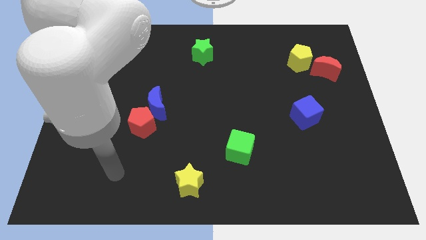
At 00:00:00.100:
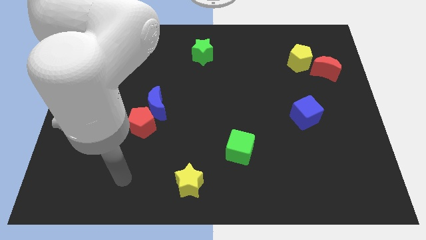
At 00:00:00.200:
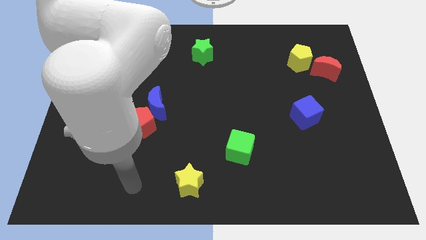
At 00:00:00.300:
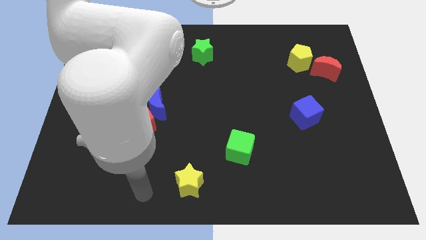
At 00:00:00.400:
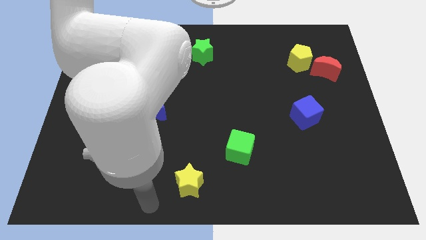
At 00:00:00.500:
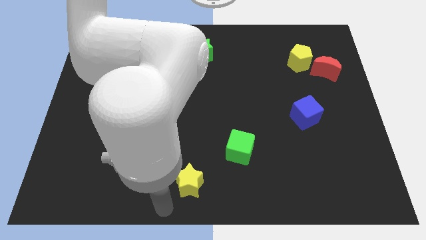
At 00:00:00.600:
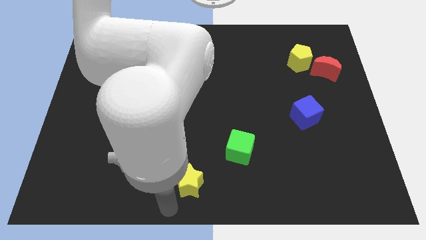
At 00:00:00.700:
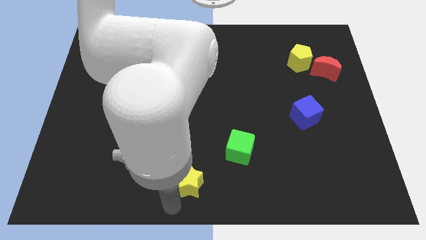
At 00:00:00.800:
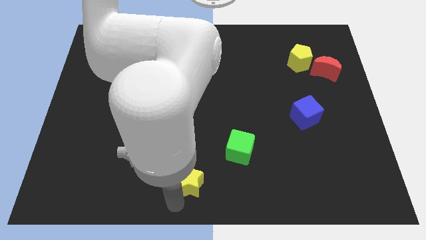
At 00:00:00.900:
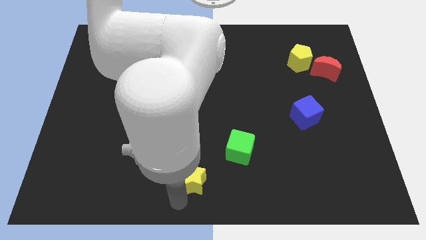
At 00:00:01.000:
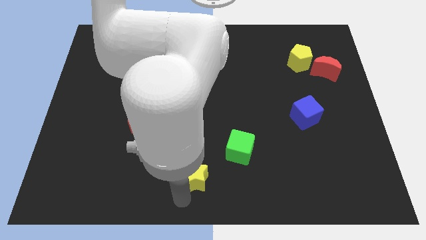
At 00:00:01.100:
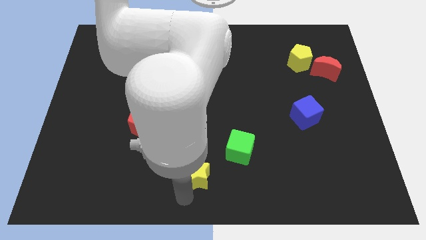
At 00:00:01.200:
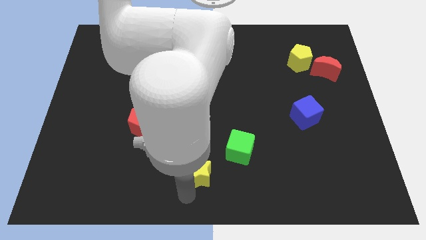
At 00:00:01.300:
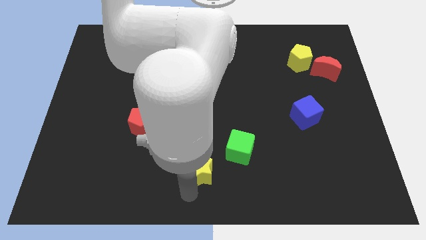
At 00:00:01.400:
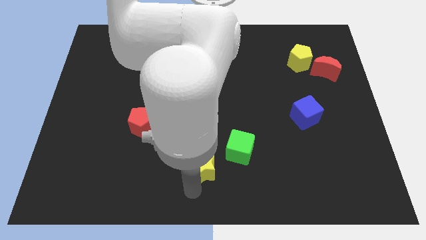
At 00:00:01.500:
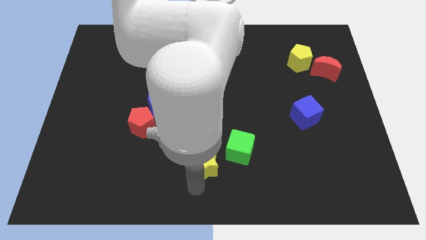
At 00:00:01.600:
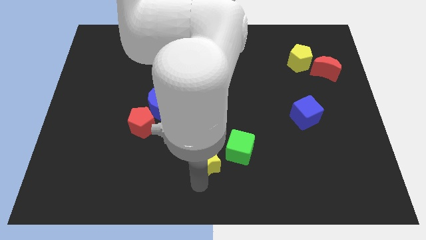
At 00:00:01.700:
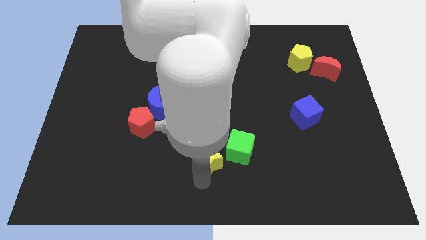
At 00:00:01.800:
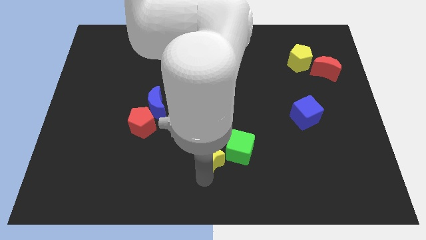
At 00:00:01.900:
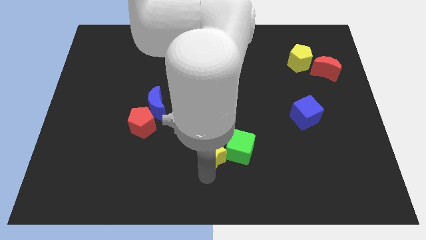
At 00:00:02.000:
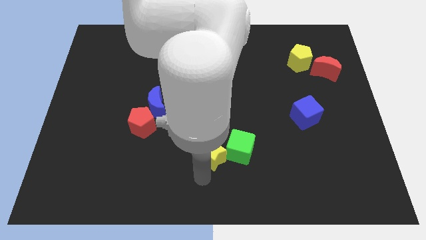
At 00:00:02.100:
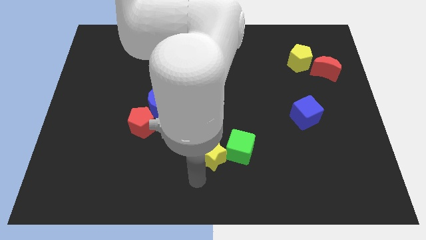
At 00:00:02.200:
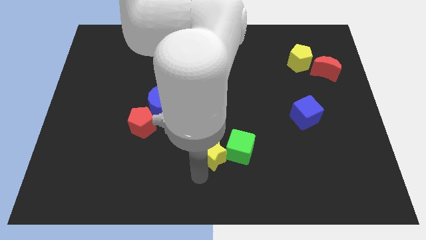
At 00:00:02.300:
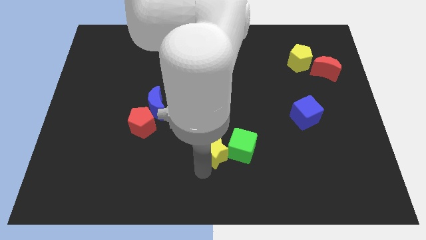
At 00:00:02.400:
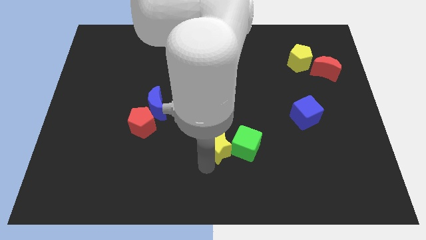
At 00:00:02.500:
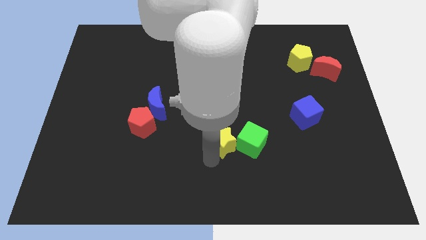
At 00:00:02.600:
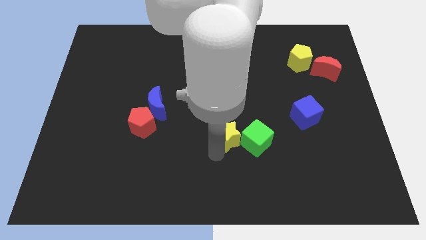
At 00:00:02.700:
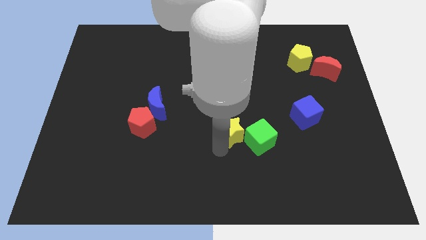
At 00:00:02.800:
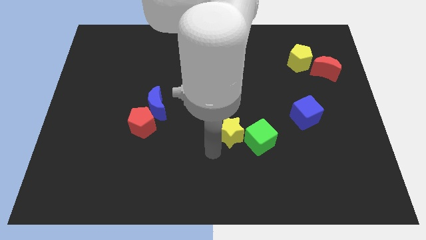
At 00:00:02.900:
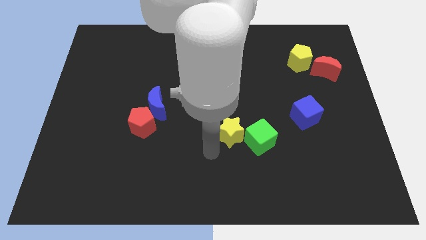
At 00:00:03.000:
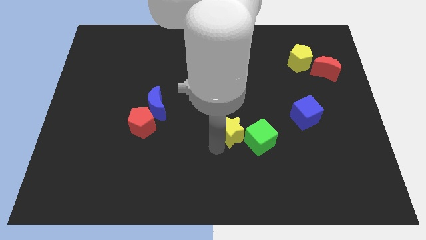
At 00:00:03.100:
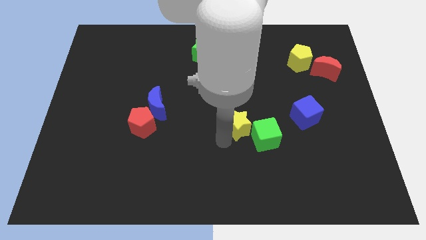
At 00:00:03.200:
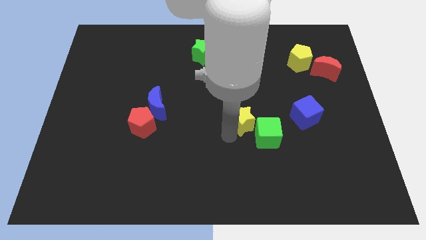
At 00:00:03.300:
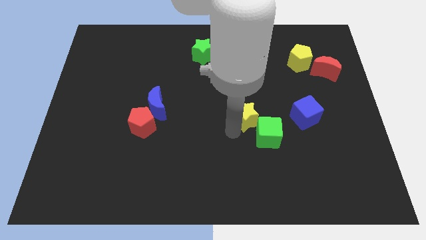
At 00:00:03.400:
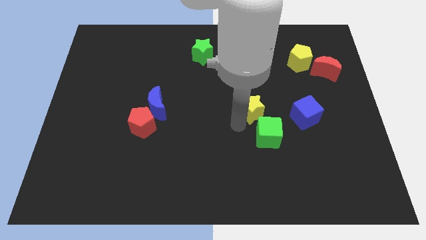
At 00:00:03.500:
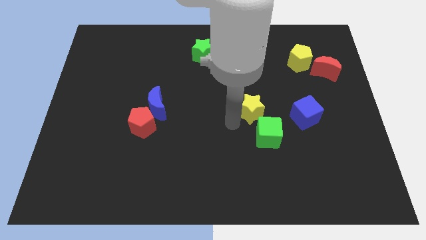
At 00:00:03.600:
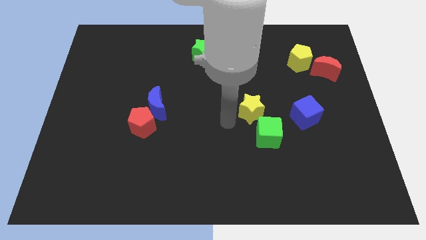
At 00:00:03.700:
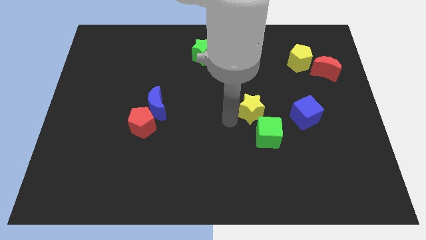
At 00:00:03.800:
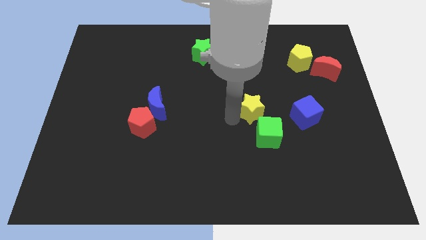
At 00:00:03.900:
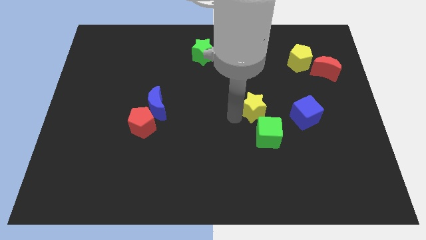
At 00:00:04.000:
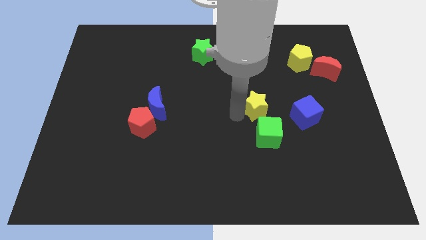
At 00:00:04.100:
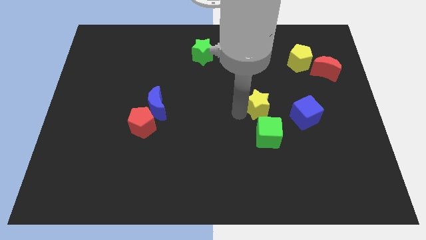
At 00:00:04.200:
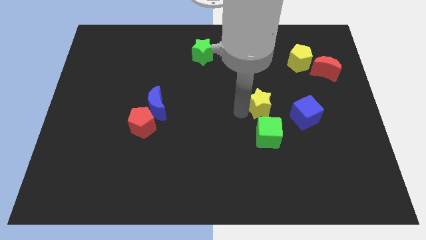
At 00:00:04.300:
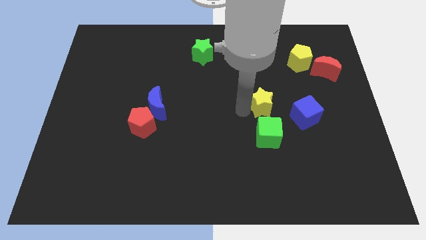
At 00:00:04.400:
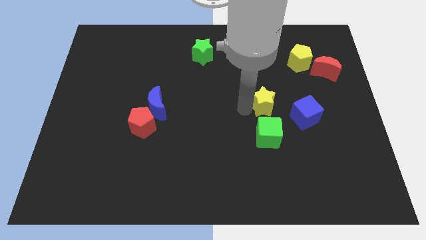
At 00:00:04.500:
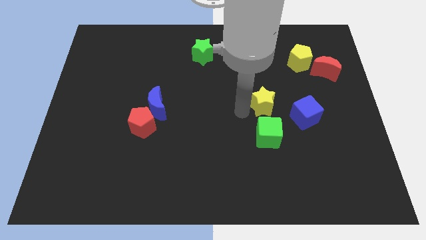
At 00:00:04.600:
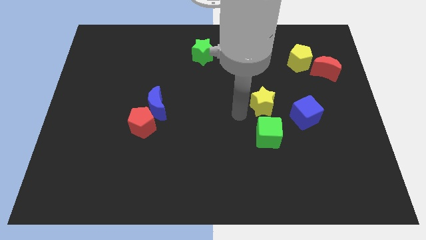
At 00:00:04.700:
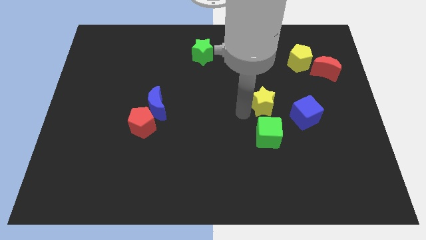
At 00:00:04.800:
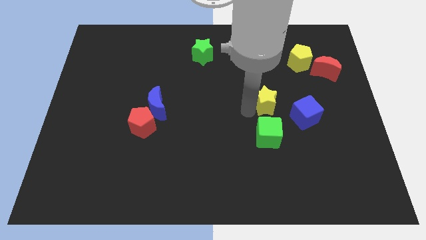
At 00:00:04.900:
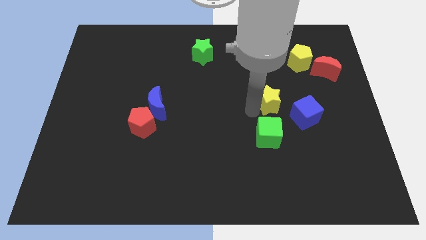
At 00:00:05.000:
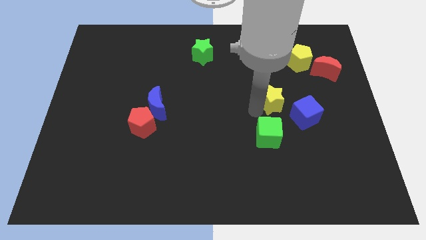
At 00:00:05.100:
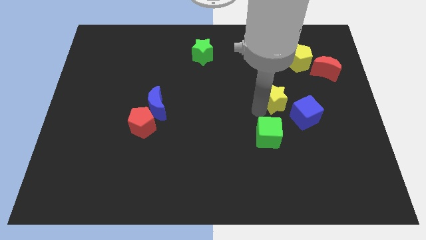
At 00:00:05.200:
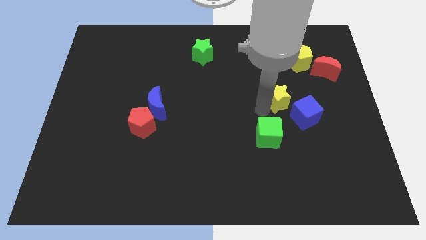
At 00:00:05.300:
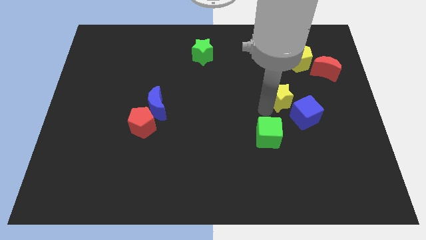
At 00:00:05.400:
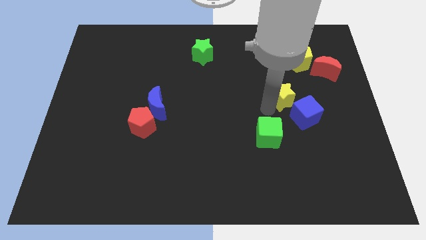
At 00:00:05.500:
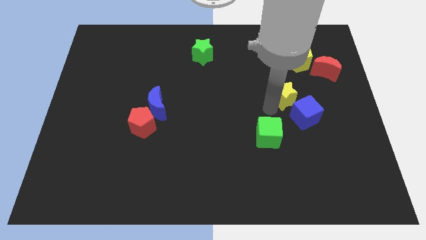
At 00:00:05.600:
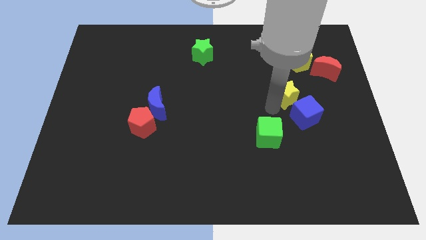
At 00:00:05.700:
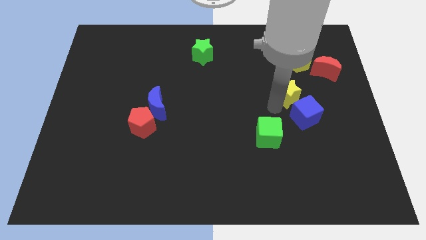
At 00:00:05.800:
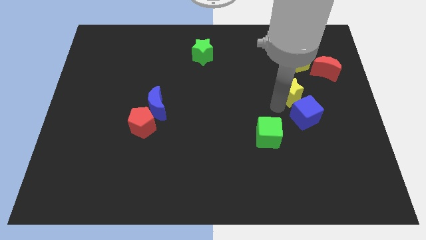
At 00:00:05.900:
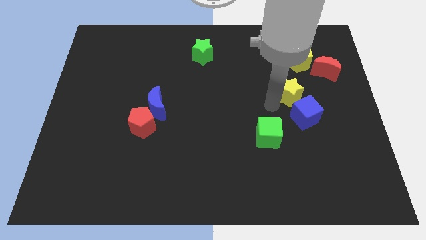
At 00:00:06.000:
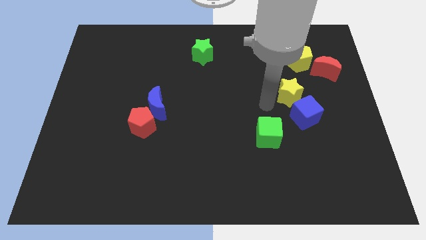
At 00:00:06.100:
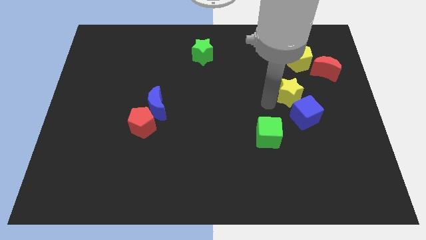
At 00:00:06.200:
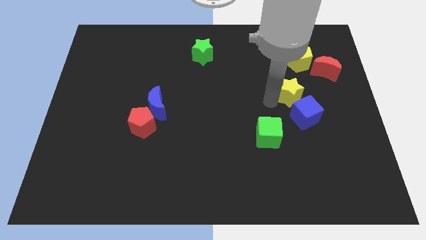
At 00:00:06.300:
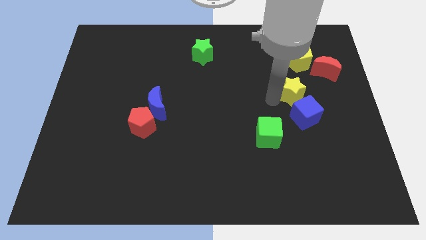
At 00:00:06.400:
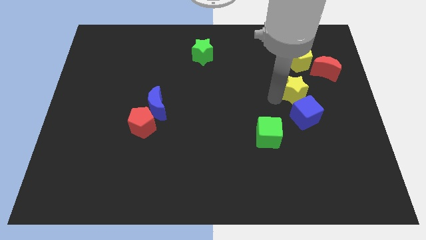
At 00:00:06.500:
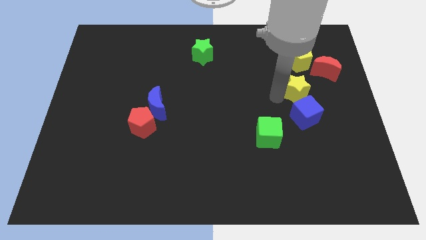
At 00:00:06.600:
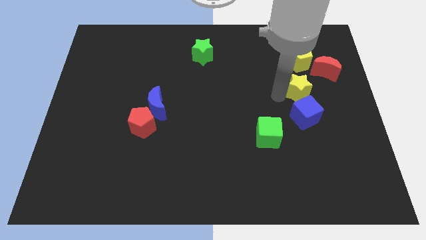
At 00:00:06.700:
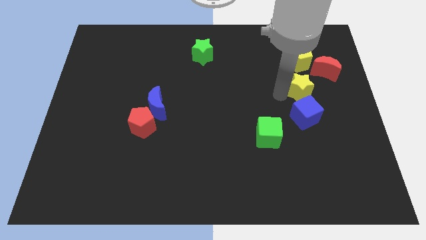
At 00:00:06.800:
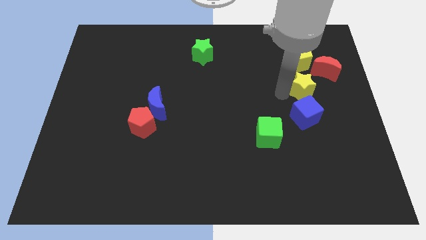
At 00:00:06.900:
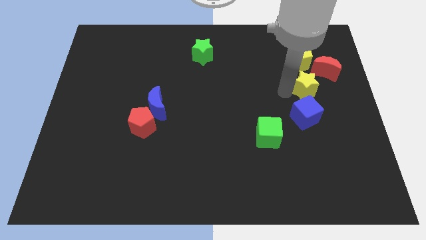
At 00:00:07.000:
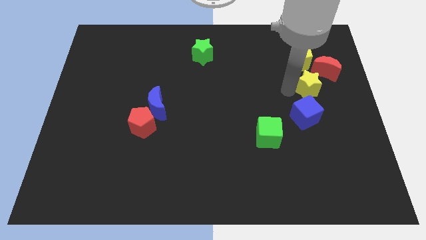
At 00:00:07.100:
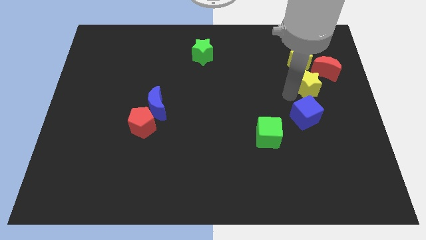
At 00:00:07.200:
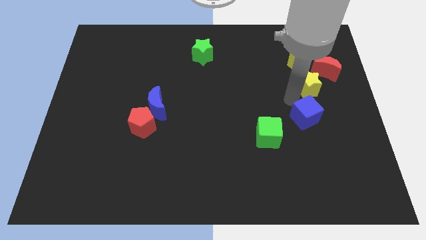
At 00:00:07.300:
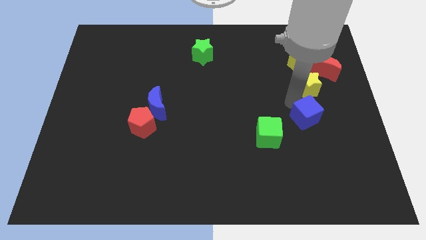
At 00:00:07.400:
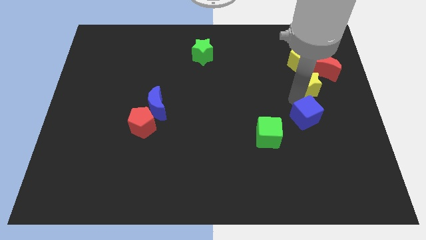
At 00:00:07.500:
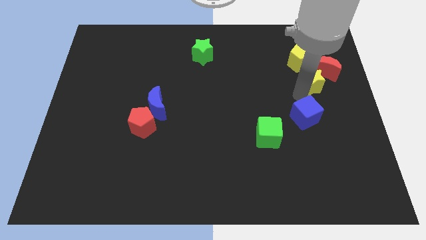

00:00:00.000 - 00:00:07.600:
put the yellow star next to the red moon

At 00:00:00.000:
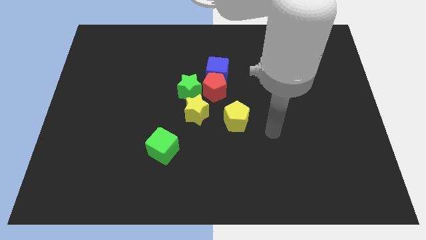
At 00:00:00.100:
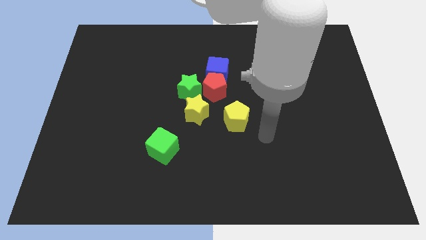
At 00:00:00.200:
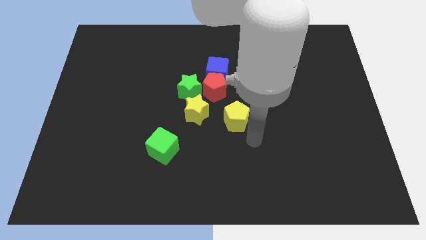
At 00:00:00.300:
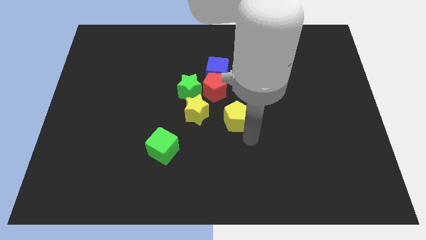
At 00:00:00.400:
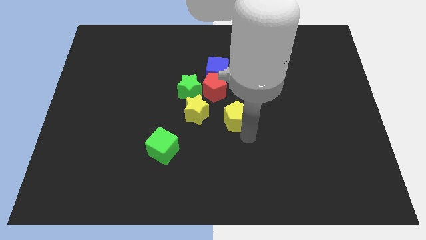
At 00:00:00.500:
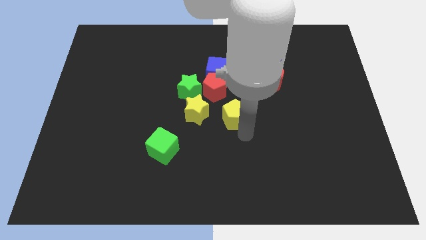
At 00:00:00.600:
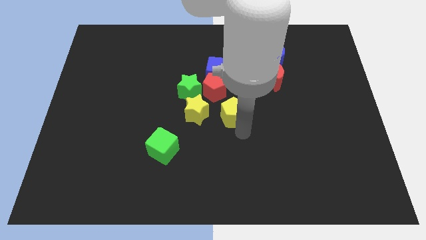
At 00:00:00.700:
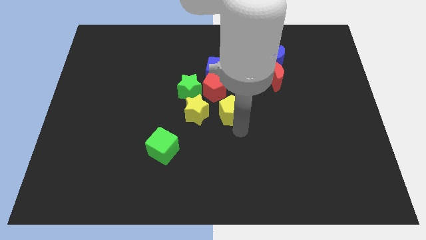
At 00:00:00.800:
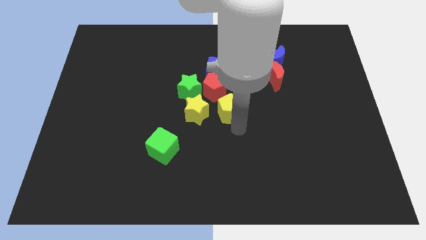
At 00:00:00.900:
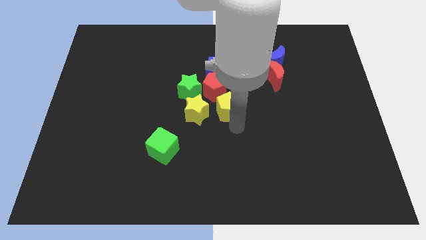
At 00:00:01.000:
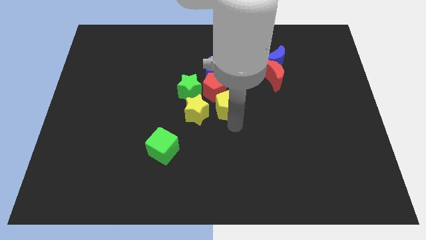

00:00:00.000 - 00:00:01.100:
push the yellow pentagon next to the red pentagon
